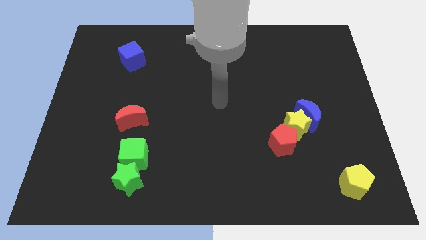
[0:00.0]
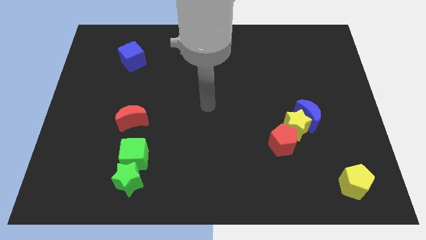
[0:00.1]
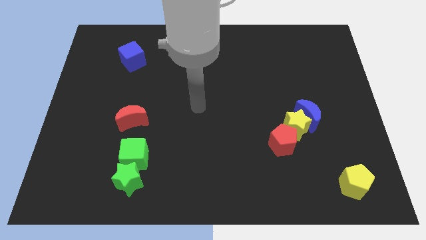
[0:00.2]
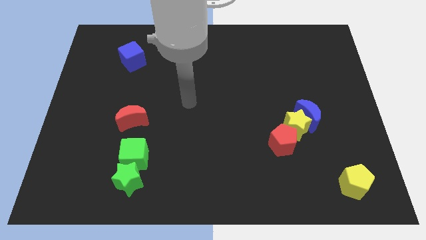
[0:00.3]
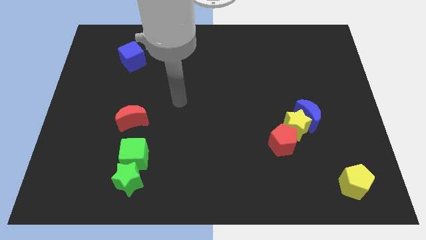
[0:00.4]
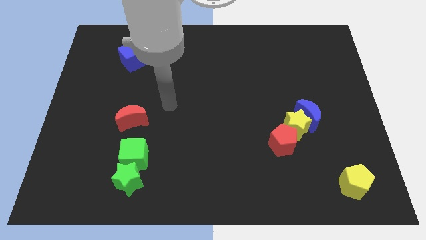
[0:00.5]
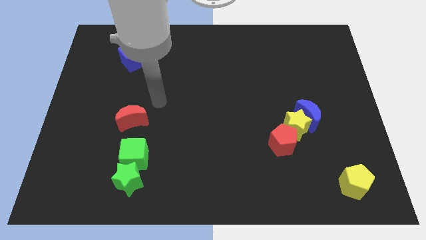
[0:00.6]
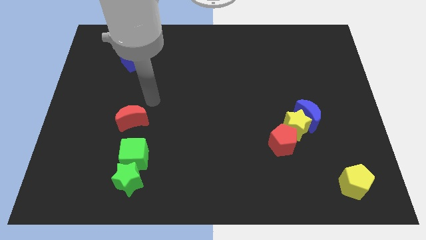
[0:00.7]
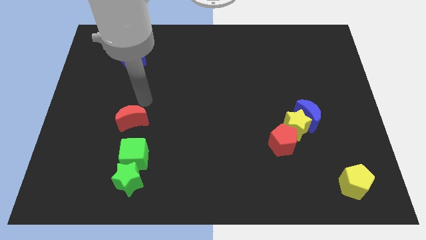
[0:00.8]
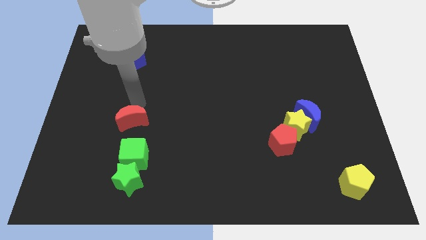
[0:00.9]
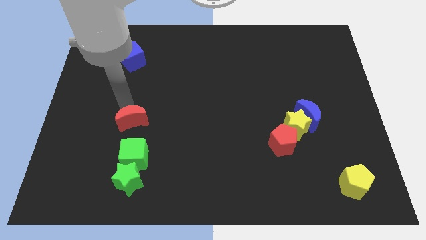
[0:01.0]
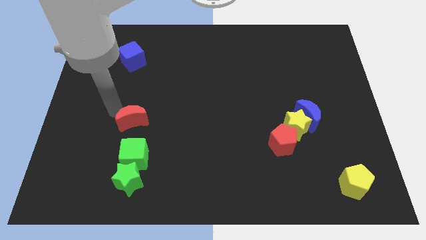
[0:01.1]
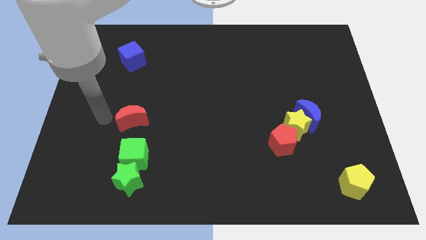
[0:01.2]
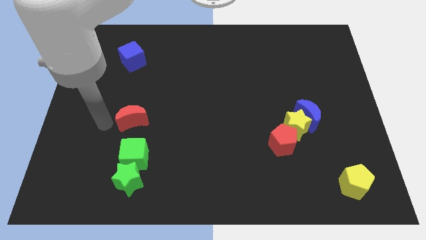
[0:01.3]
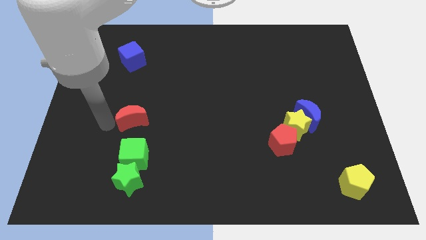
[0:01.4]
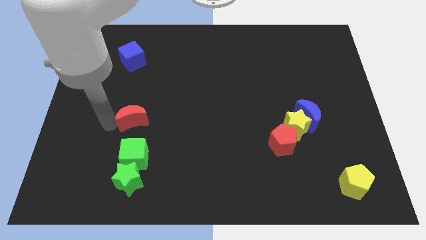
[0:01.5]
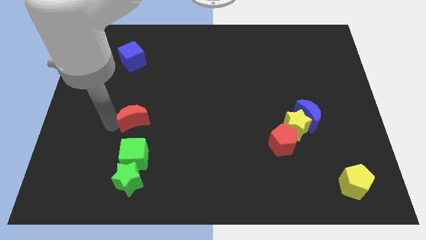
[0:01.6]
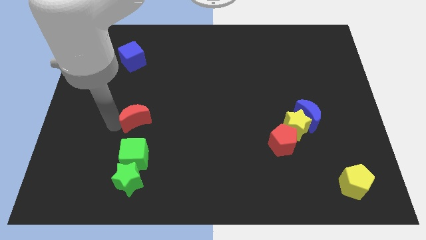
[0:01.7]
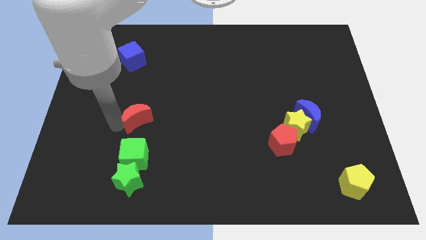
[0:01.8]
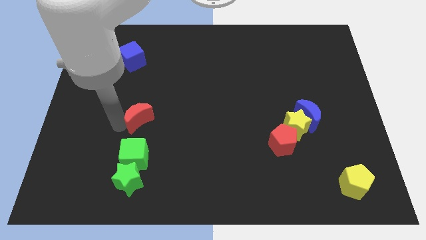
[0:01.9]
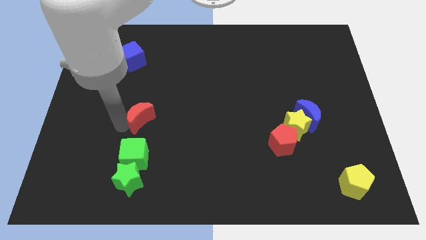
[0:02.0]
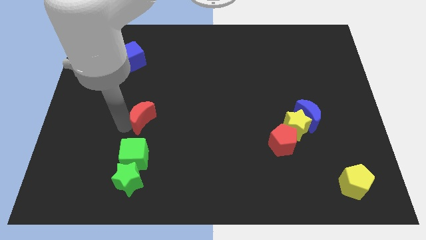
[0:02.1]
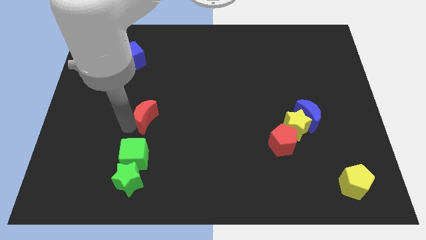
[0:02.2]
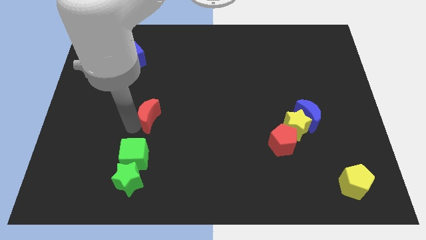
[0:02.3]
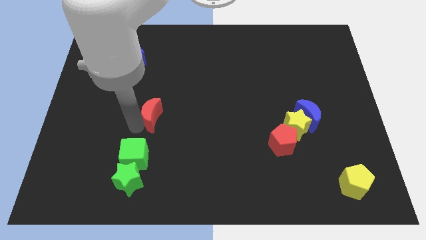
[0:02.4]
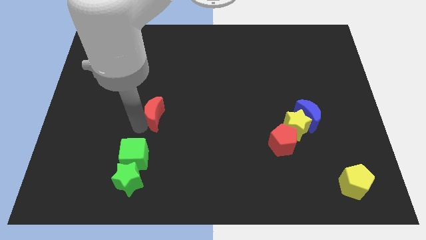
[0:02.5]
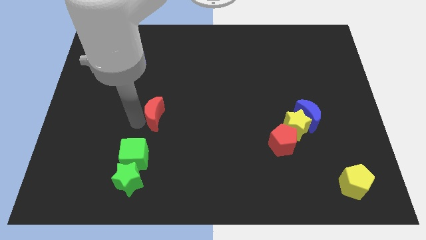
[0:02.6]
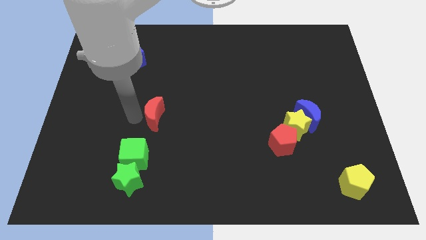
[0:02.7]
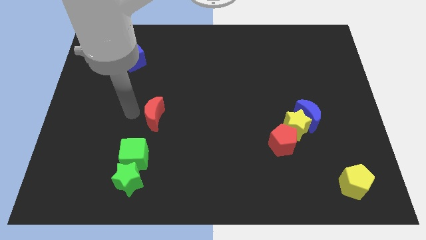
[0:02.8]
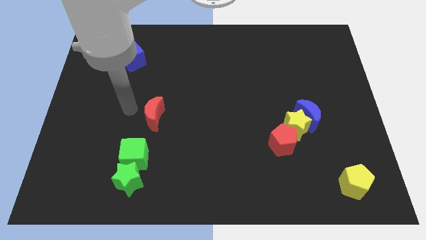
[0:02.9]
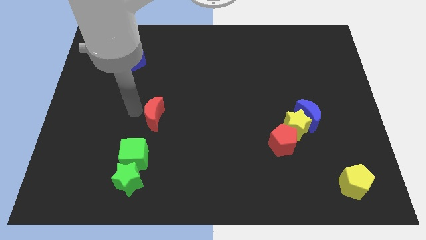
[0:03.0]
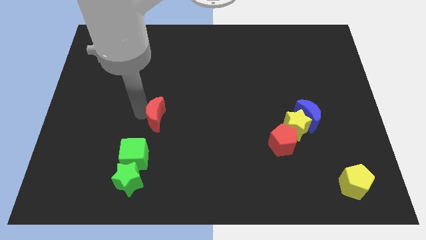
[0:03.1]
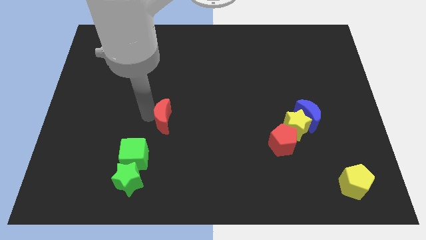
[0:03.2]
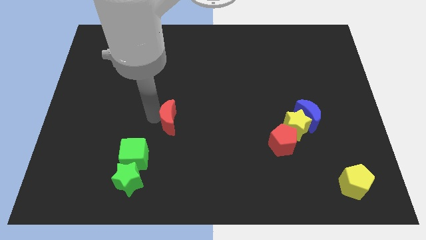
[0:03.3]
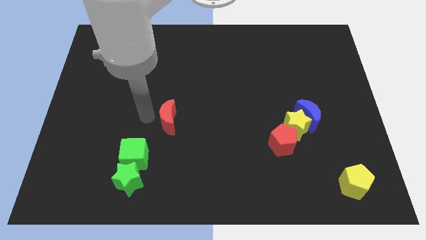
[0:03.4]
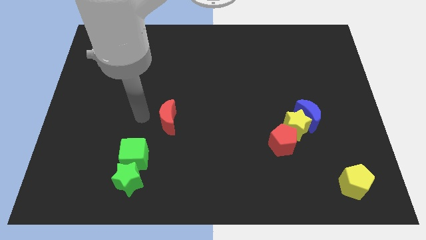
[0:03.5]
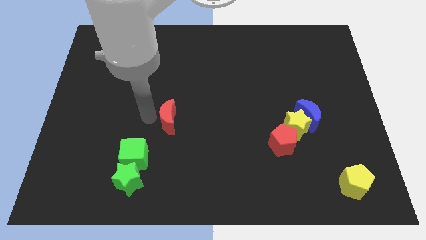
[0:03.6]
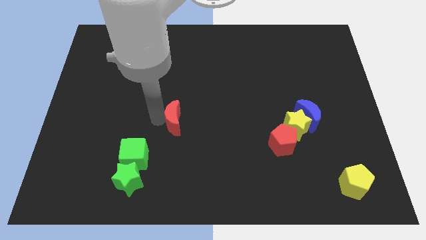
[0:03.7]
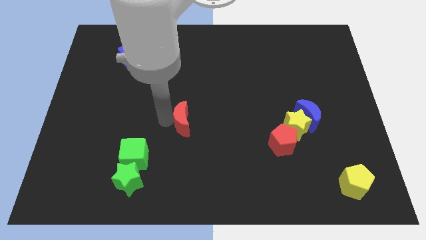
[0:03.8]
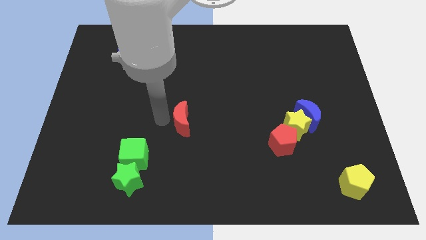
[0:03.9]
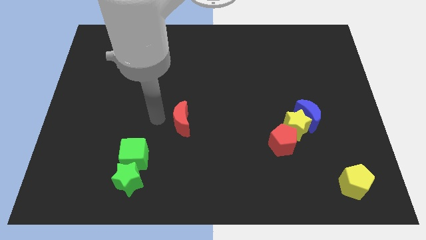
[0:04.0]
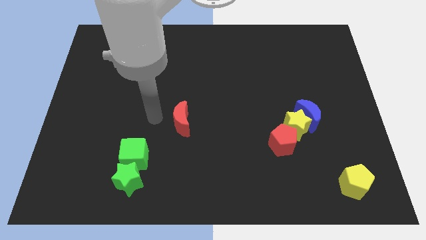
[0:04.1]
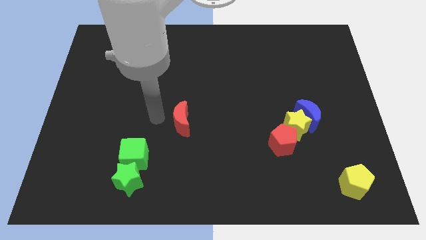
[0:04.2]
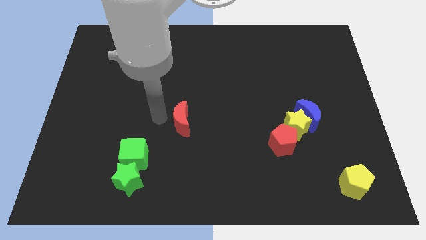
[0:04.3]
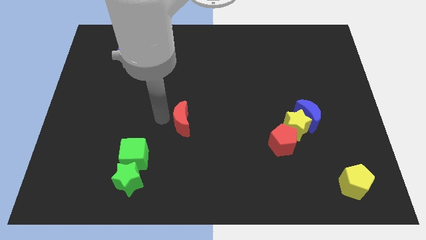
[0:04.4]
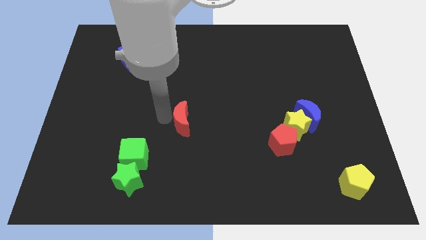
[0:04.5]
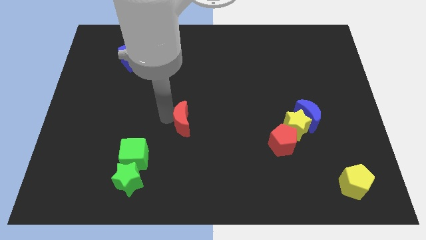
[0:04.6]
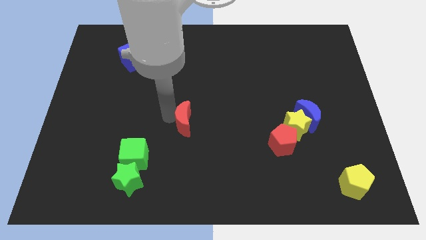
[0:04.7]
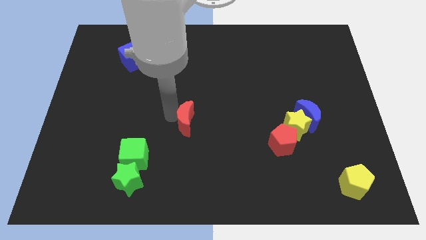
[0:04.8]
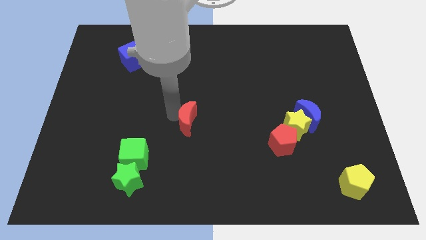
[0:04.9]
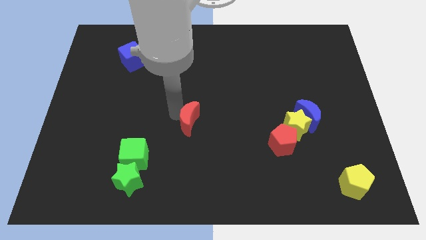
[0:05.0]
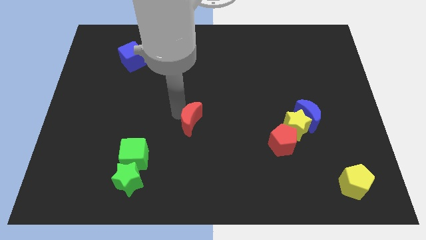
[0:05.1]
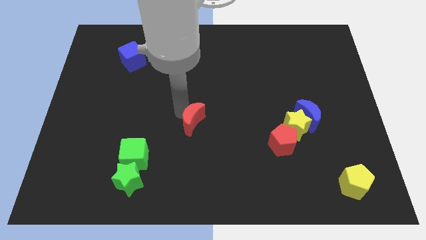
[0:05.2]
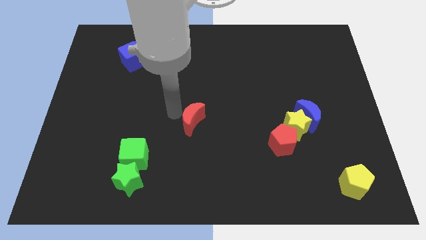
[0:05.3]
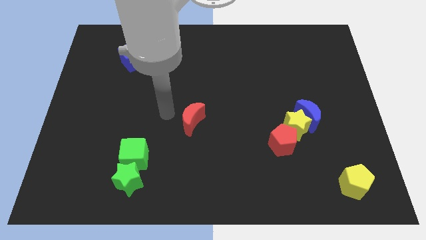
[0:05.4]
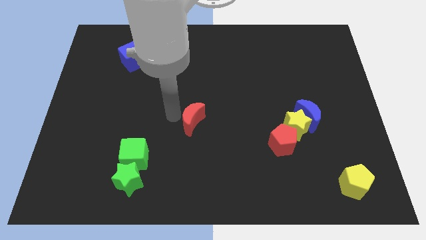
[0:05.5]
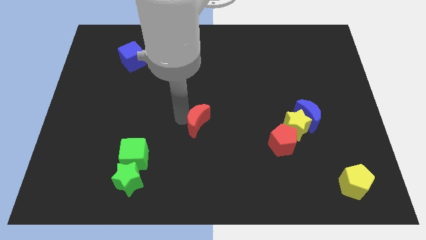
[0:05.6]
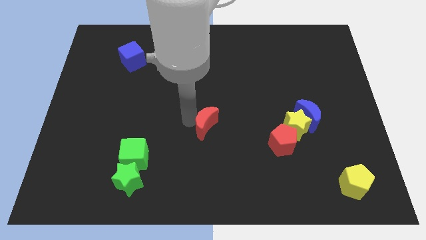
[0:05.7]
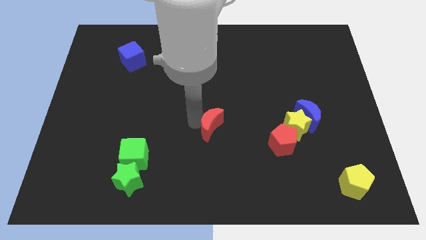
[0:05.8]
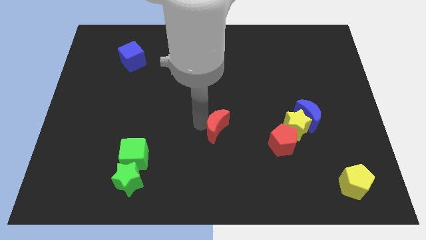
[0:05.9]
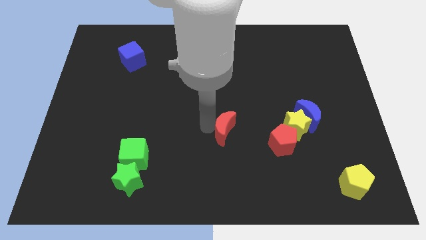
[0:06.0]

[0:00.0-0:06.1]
put the red moon just left of the yellow star

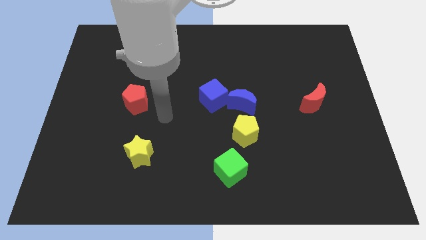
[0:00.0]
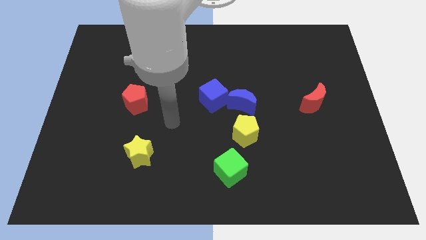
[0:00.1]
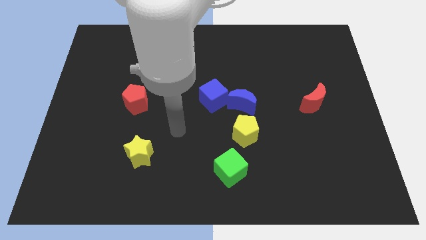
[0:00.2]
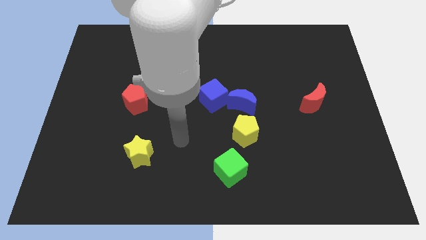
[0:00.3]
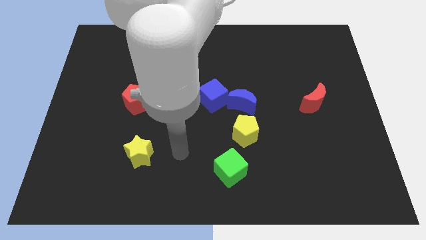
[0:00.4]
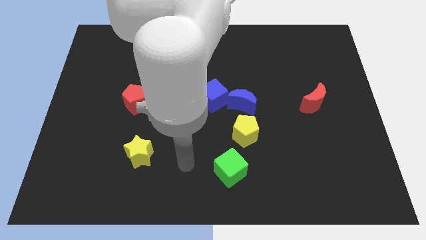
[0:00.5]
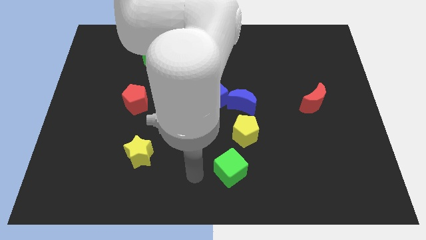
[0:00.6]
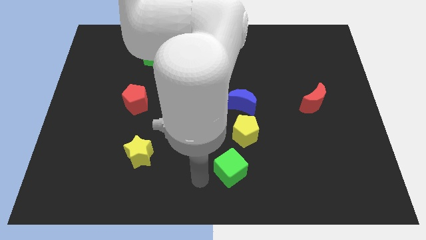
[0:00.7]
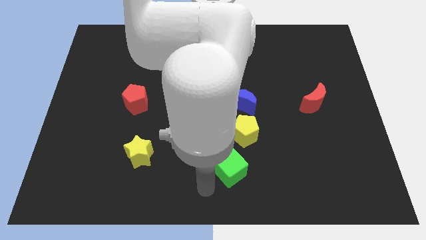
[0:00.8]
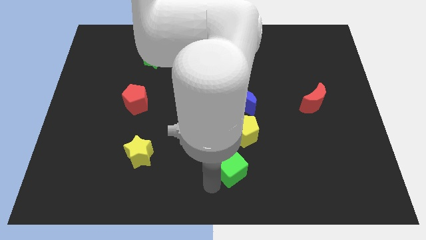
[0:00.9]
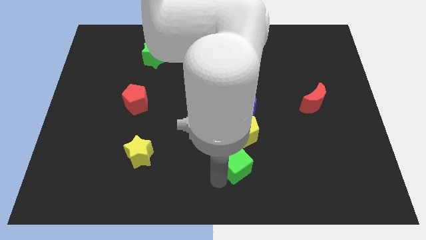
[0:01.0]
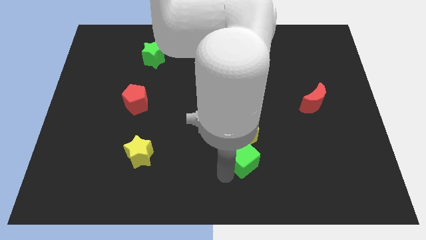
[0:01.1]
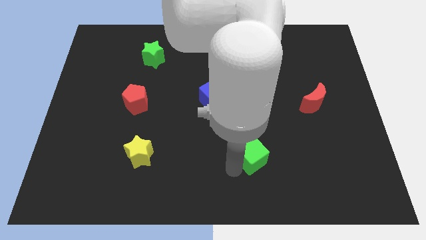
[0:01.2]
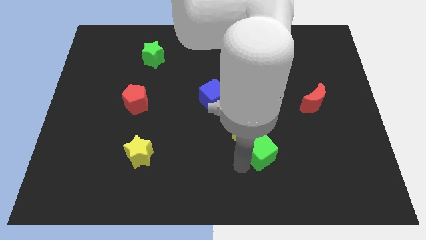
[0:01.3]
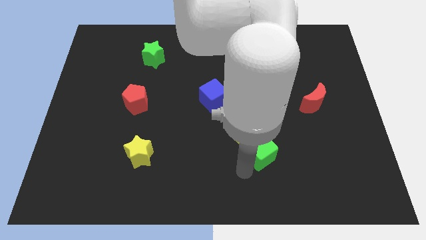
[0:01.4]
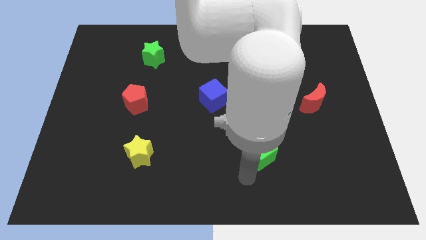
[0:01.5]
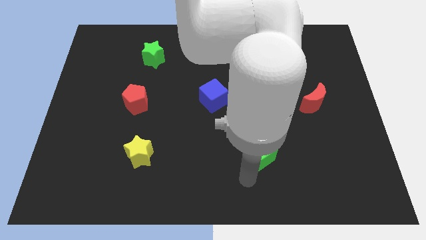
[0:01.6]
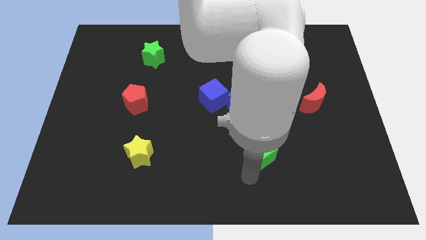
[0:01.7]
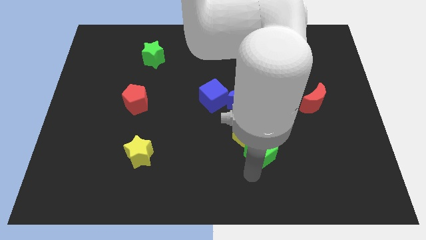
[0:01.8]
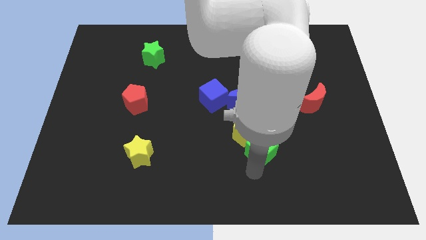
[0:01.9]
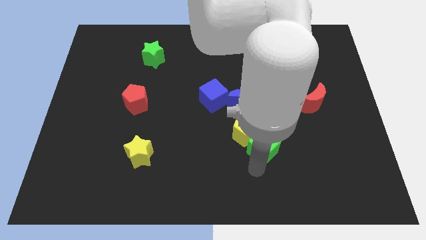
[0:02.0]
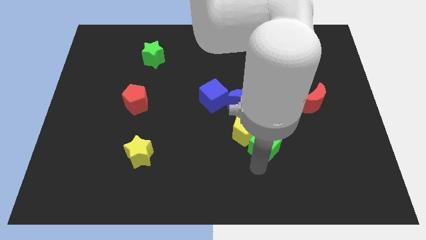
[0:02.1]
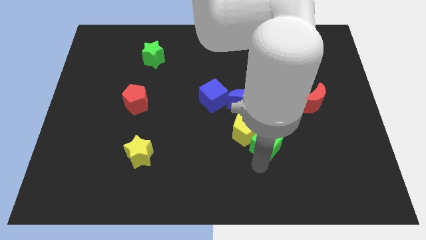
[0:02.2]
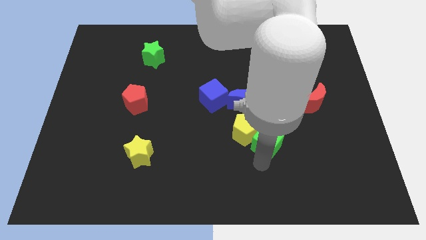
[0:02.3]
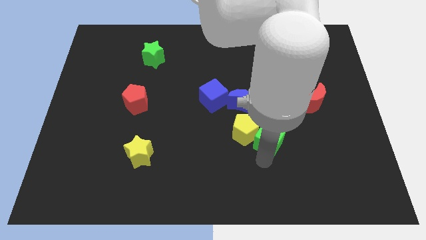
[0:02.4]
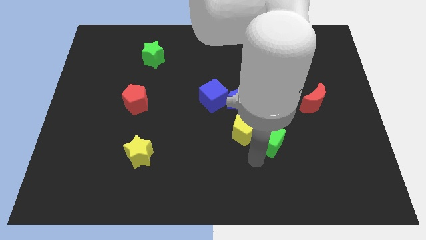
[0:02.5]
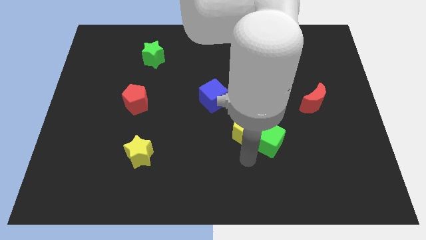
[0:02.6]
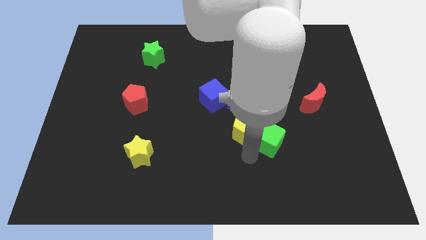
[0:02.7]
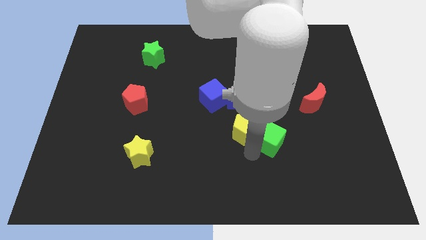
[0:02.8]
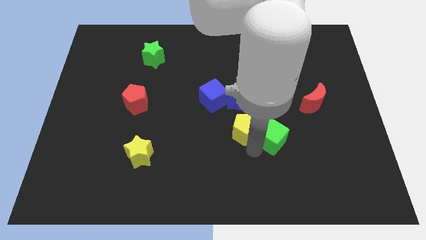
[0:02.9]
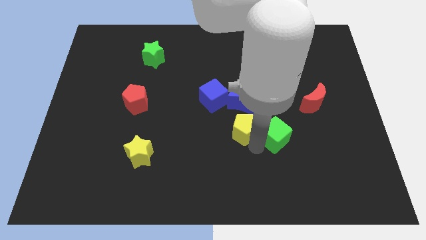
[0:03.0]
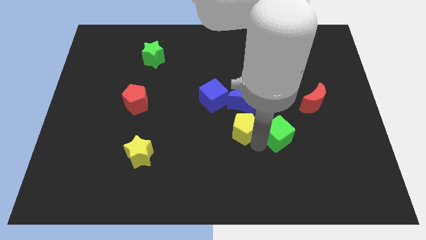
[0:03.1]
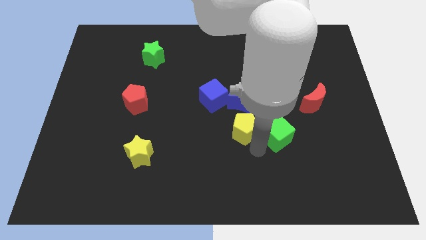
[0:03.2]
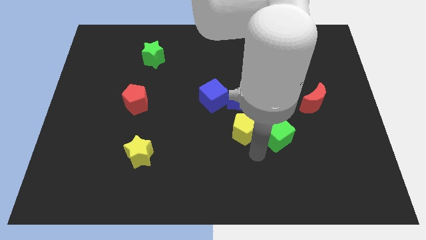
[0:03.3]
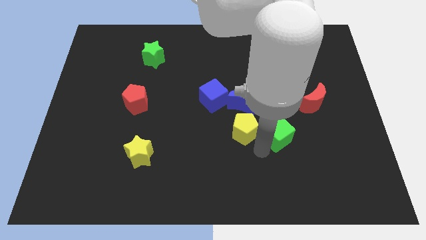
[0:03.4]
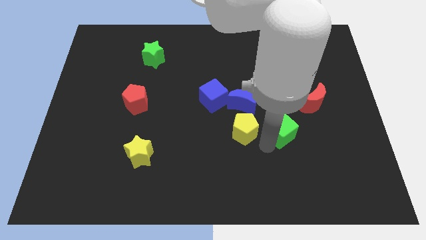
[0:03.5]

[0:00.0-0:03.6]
put the green cube diagonally down and to the left of the red moon
